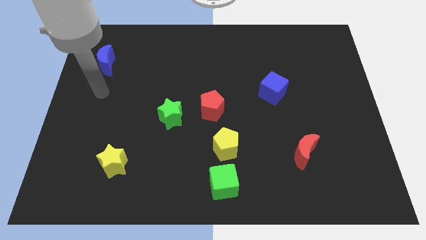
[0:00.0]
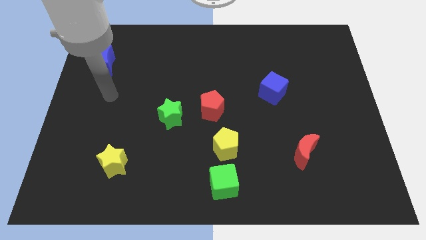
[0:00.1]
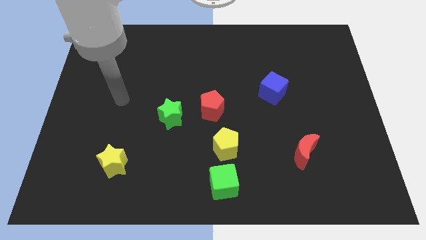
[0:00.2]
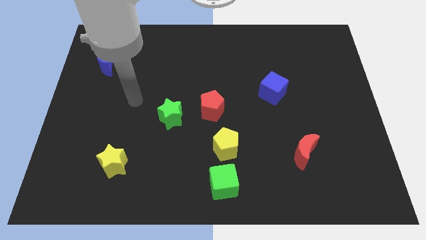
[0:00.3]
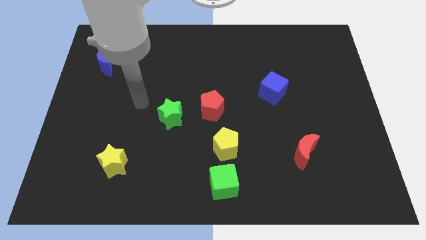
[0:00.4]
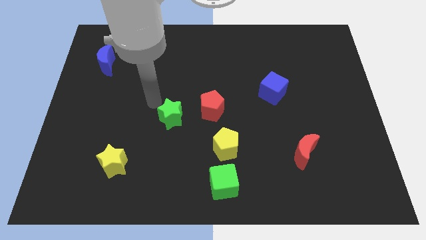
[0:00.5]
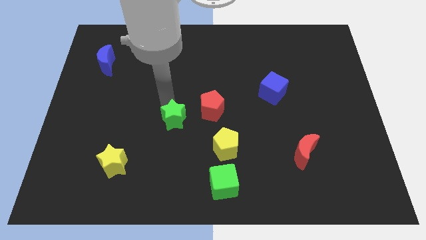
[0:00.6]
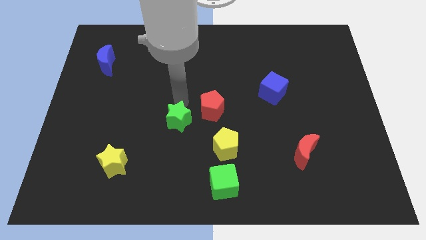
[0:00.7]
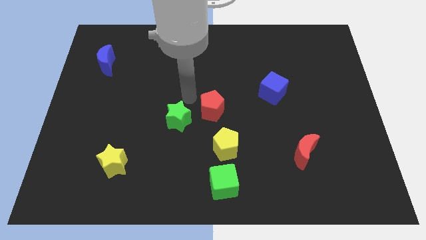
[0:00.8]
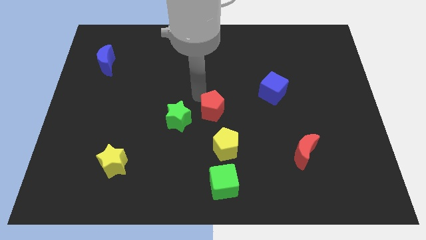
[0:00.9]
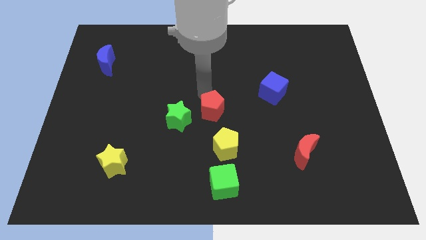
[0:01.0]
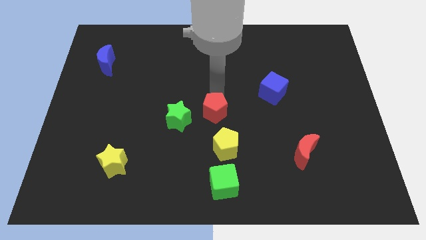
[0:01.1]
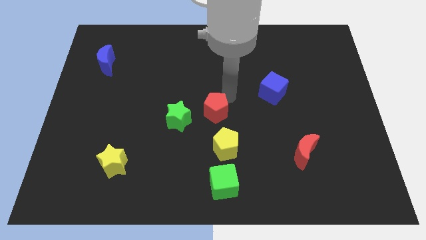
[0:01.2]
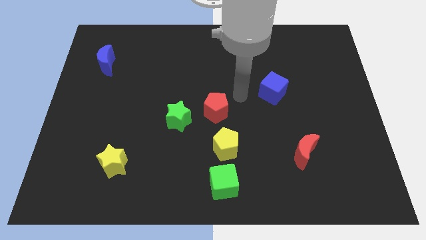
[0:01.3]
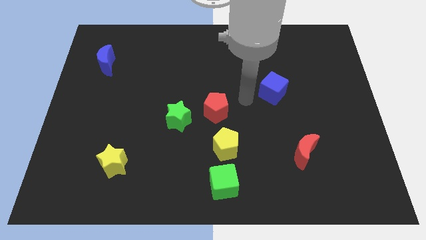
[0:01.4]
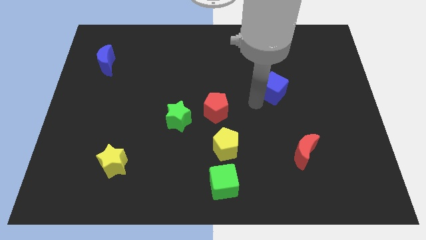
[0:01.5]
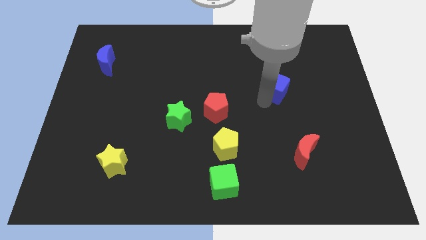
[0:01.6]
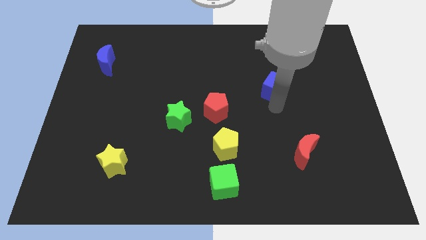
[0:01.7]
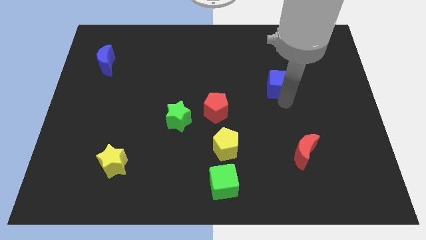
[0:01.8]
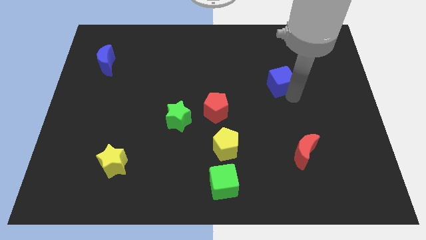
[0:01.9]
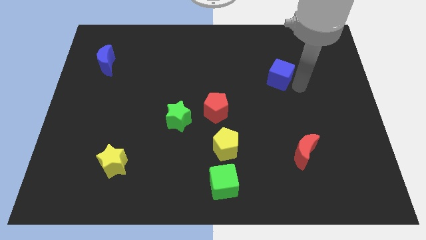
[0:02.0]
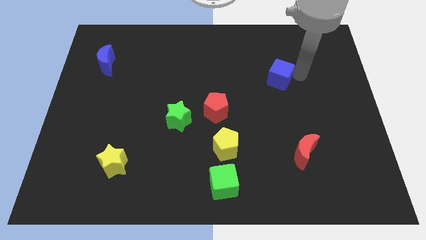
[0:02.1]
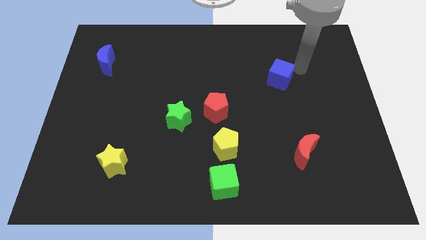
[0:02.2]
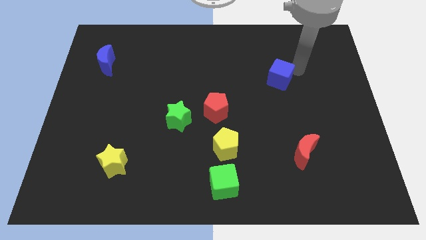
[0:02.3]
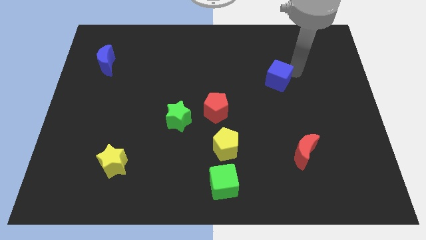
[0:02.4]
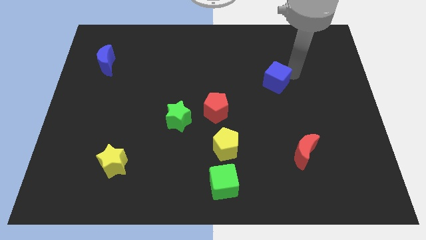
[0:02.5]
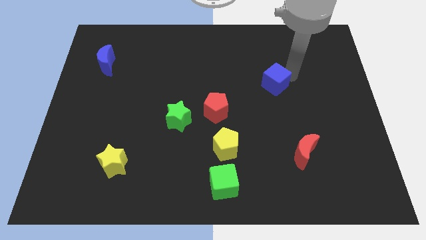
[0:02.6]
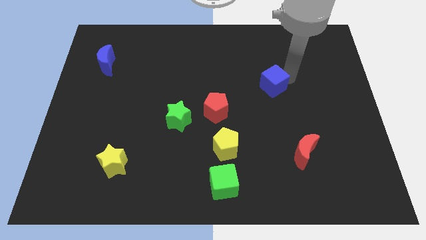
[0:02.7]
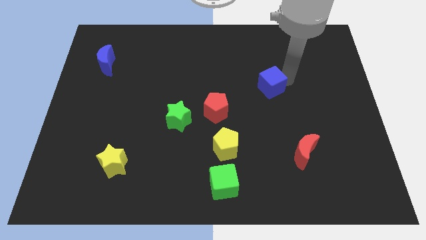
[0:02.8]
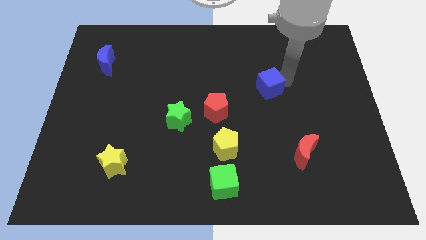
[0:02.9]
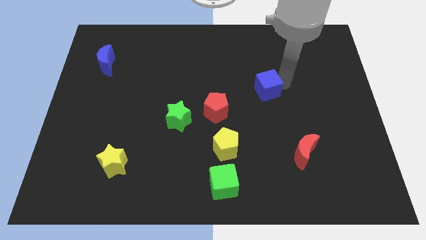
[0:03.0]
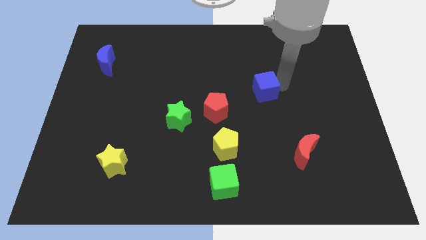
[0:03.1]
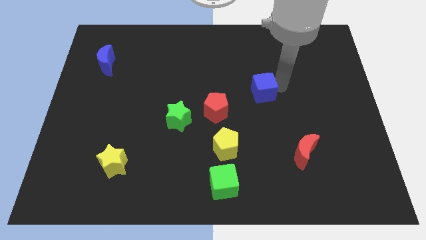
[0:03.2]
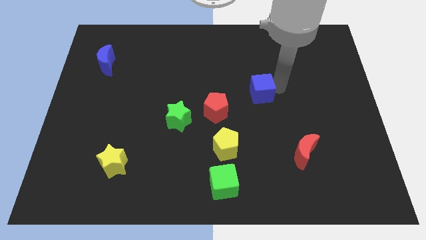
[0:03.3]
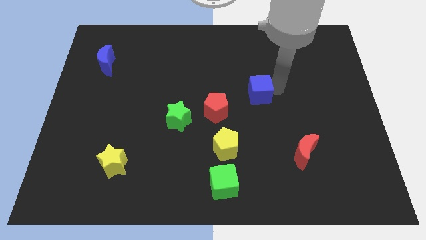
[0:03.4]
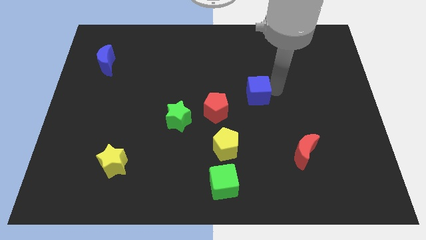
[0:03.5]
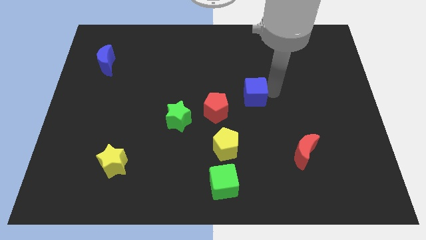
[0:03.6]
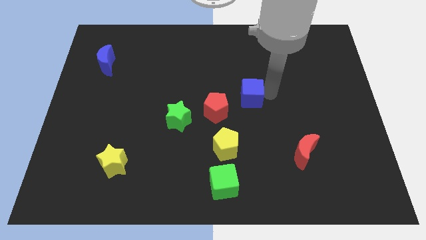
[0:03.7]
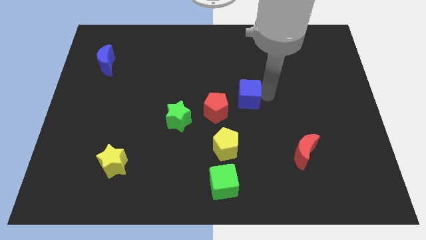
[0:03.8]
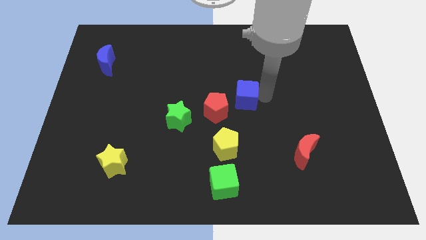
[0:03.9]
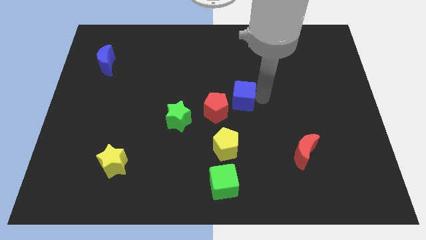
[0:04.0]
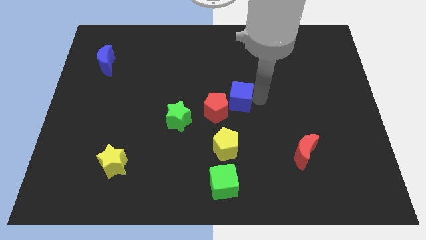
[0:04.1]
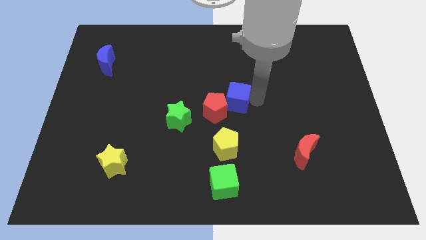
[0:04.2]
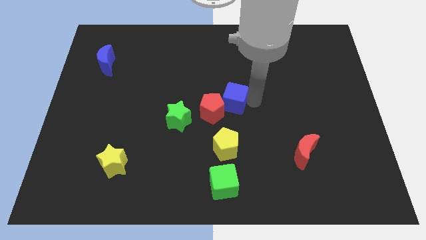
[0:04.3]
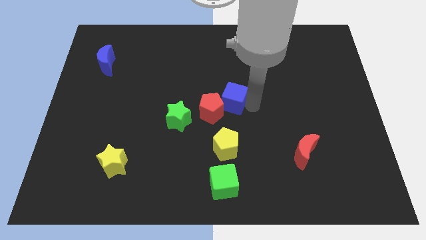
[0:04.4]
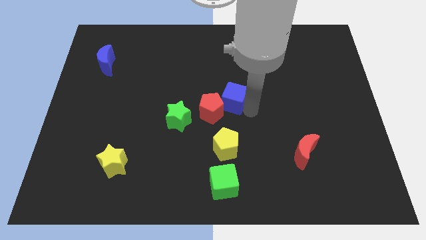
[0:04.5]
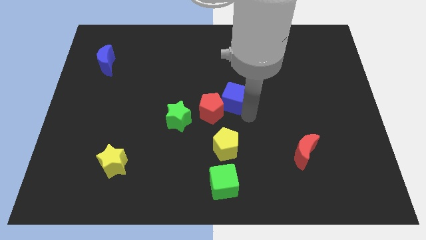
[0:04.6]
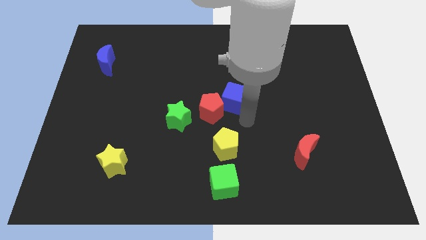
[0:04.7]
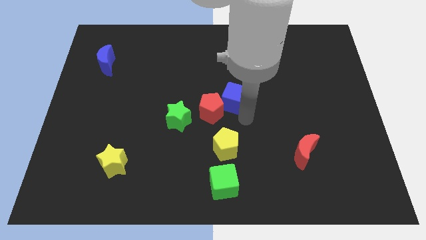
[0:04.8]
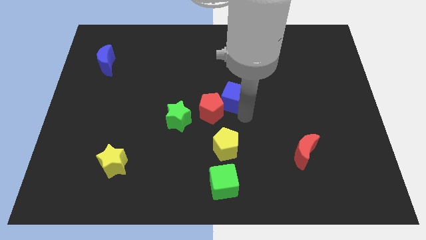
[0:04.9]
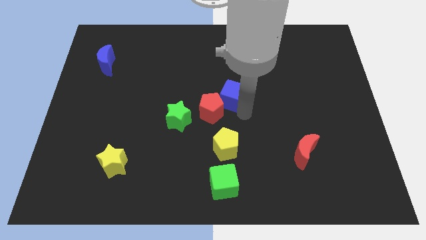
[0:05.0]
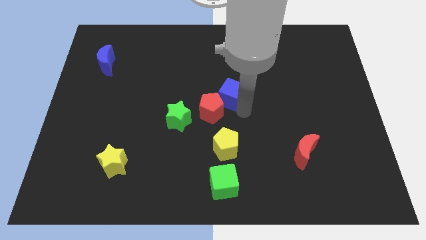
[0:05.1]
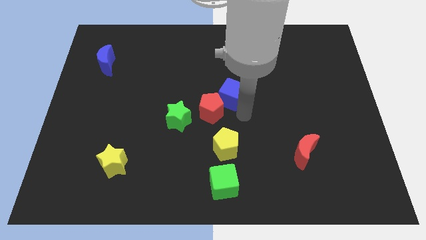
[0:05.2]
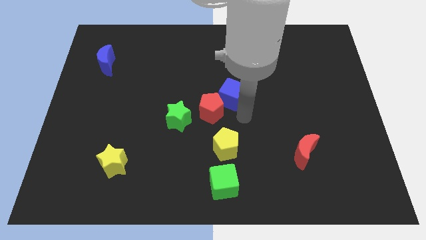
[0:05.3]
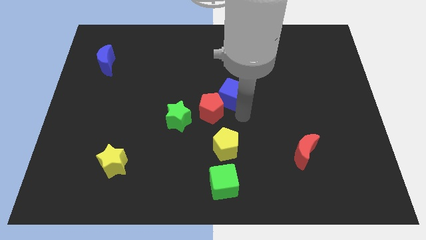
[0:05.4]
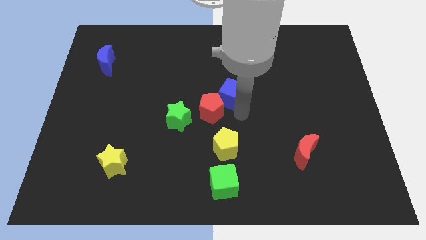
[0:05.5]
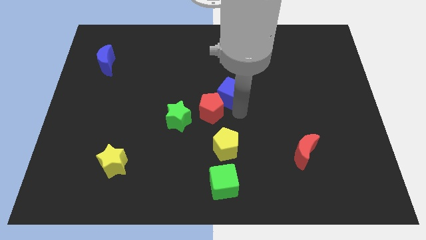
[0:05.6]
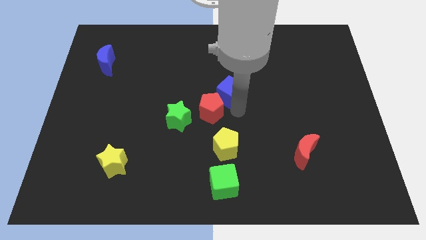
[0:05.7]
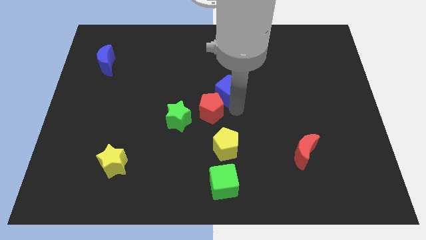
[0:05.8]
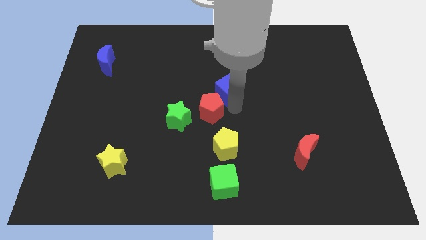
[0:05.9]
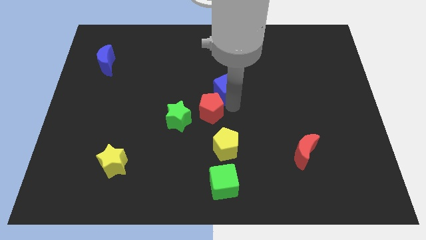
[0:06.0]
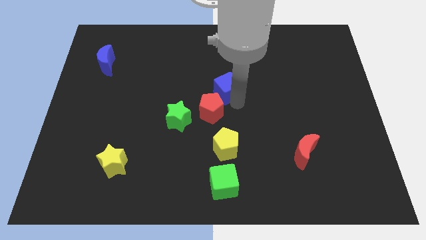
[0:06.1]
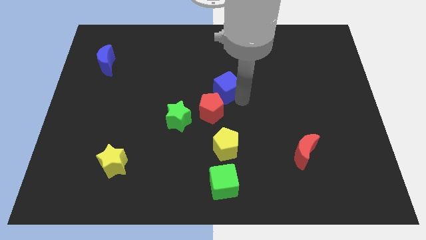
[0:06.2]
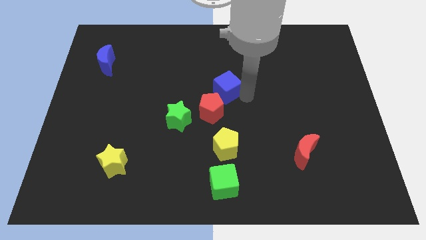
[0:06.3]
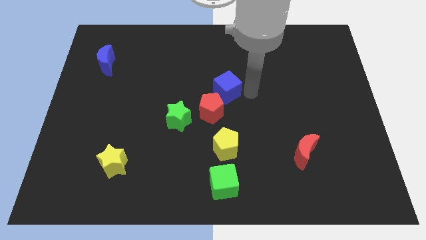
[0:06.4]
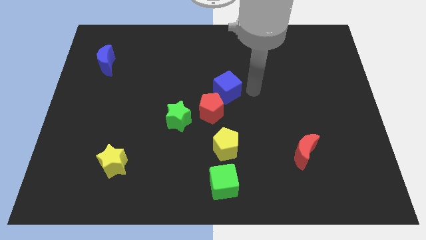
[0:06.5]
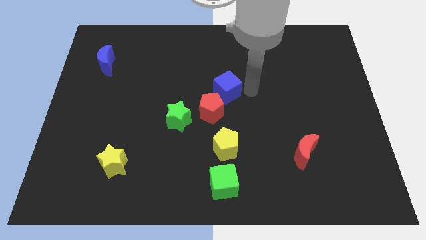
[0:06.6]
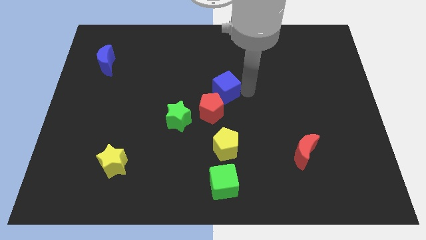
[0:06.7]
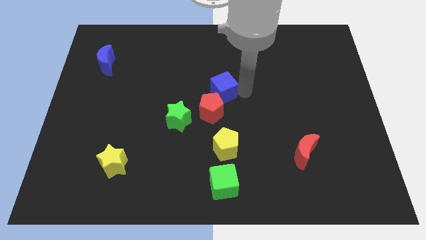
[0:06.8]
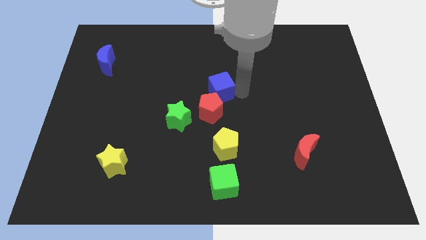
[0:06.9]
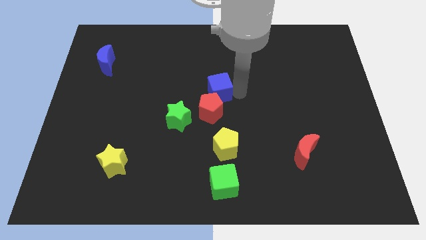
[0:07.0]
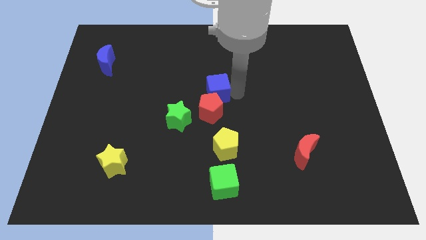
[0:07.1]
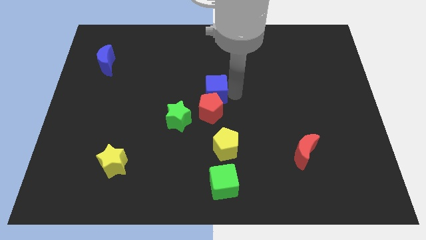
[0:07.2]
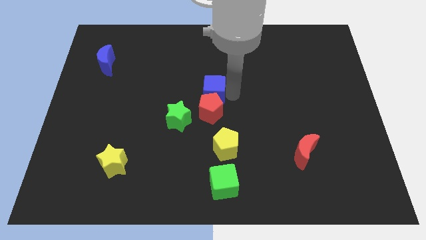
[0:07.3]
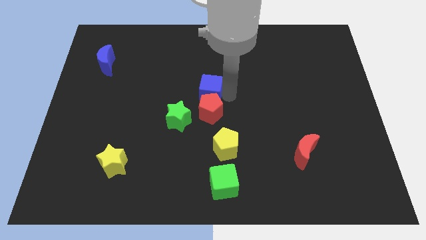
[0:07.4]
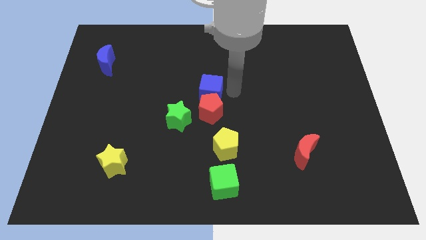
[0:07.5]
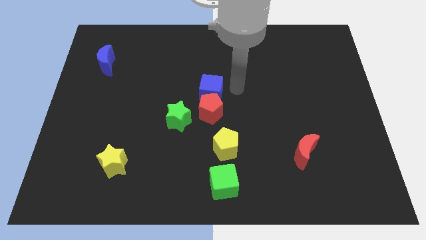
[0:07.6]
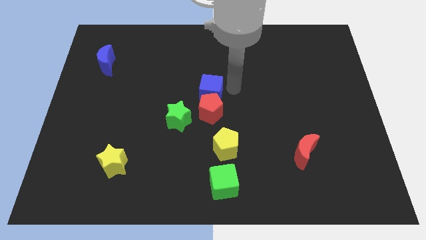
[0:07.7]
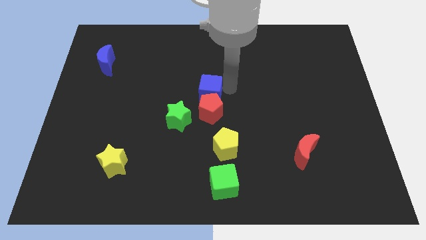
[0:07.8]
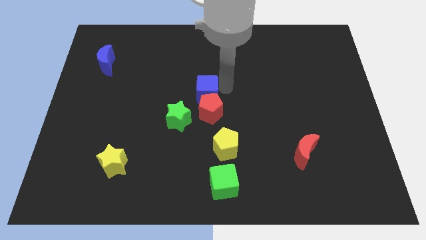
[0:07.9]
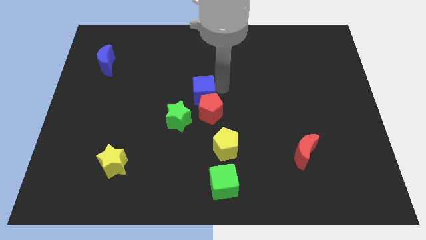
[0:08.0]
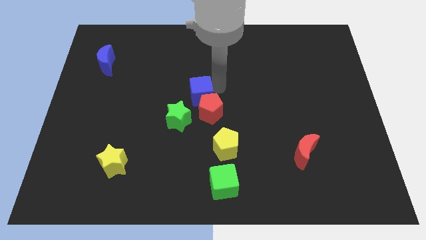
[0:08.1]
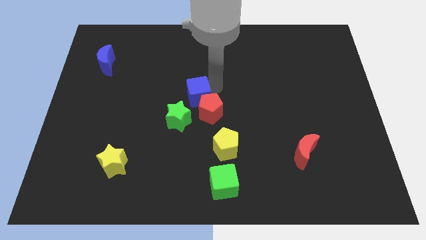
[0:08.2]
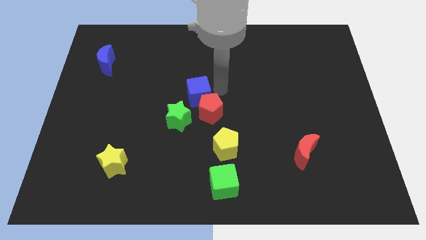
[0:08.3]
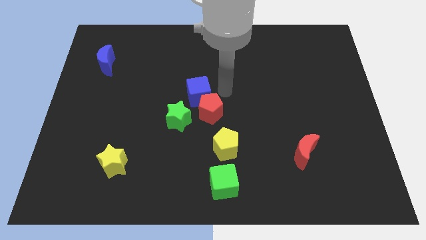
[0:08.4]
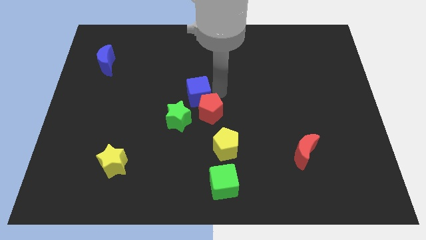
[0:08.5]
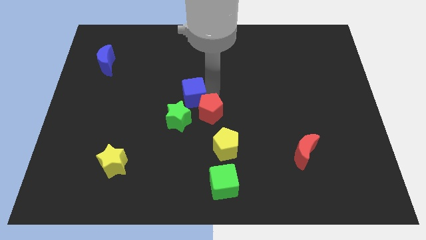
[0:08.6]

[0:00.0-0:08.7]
move the blue cube left of the red pentagon
